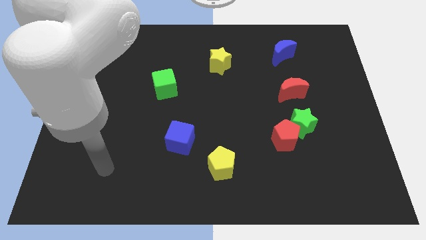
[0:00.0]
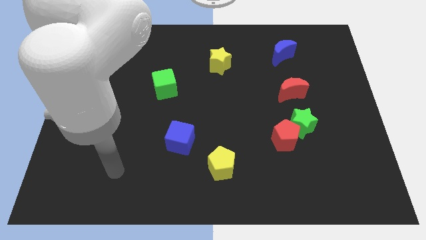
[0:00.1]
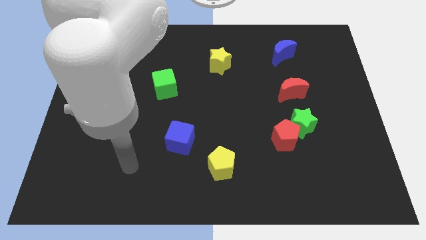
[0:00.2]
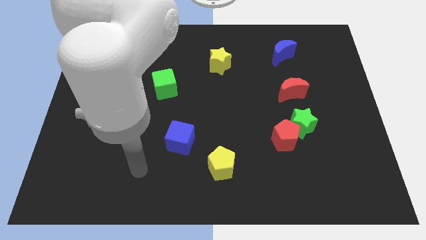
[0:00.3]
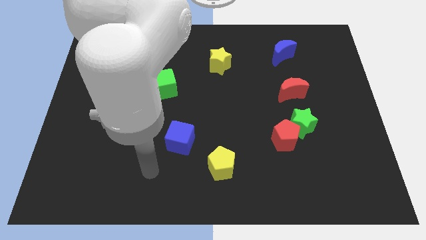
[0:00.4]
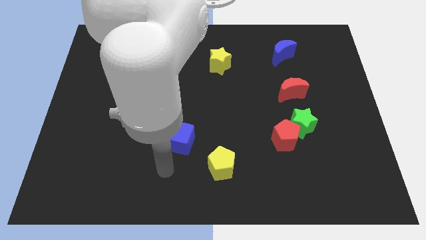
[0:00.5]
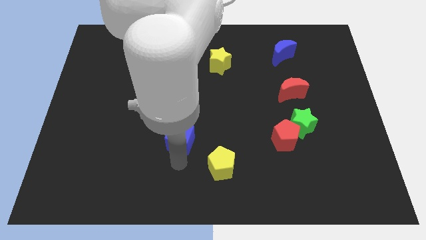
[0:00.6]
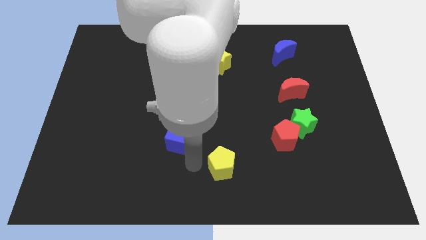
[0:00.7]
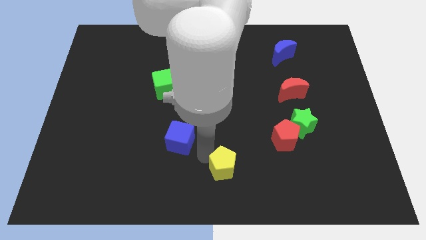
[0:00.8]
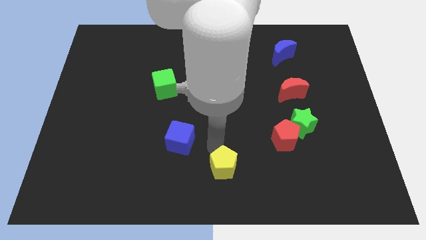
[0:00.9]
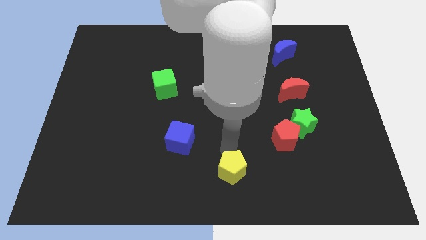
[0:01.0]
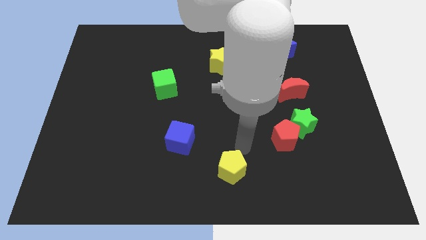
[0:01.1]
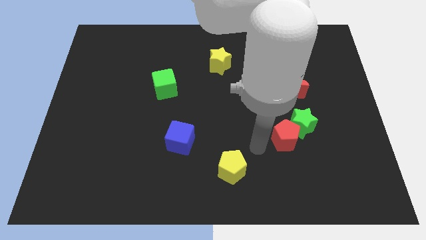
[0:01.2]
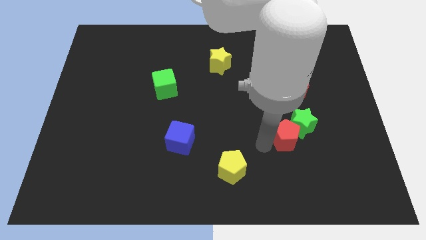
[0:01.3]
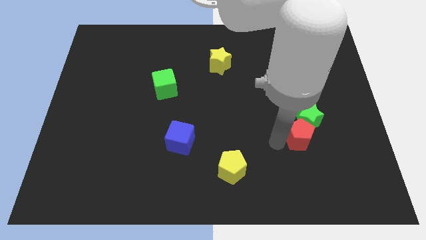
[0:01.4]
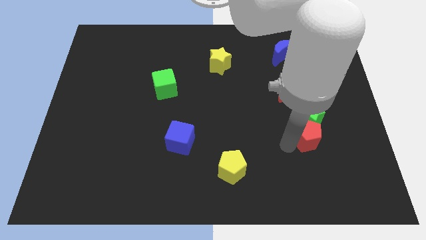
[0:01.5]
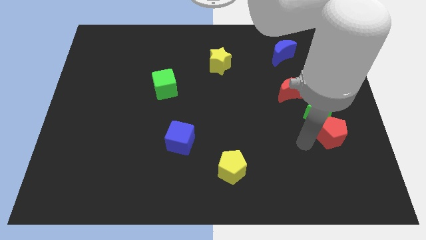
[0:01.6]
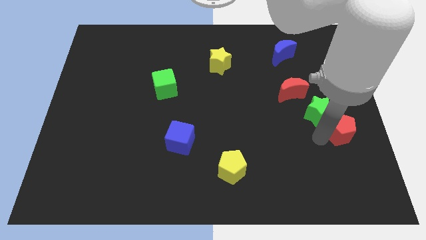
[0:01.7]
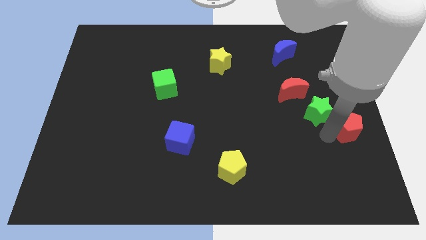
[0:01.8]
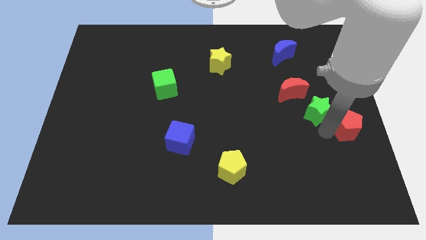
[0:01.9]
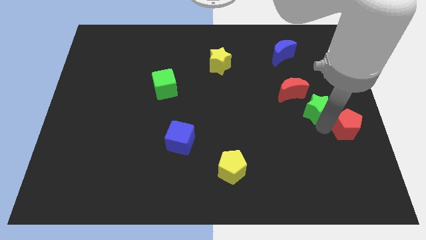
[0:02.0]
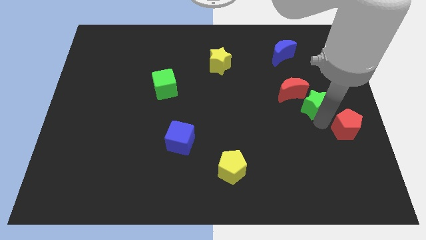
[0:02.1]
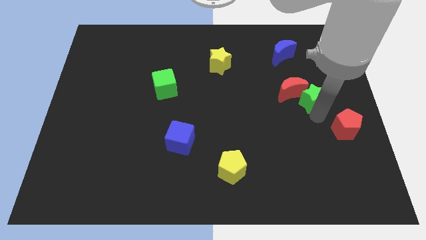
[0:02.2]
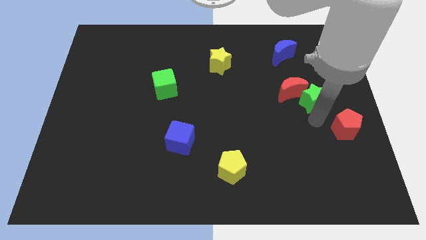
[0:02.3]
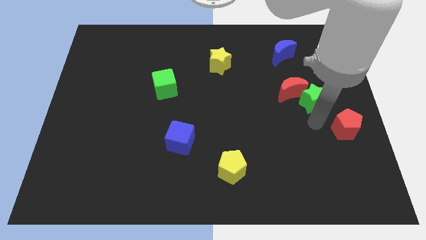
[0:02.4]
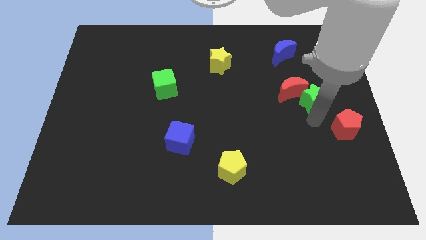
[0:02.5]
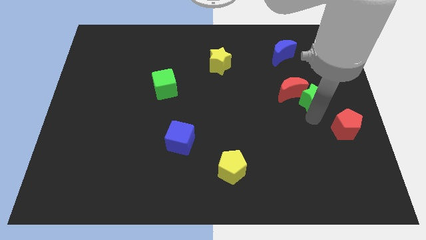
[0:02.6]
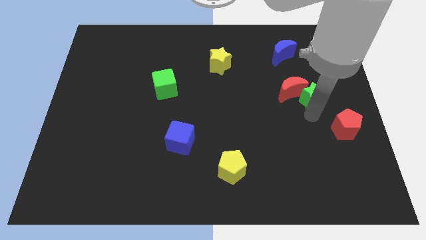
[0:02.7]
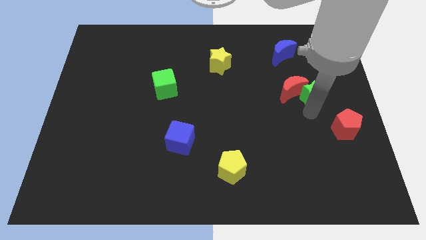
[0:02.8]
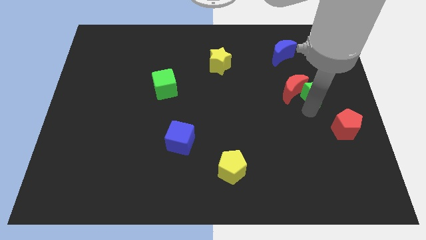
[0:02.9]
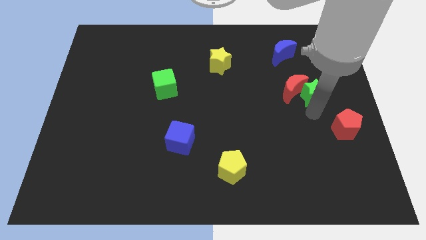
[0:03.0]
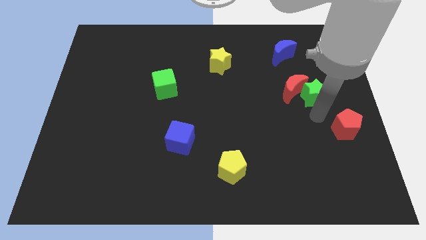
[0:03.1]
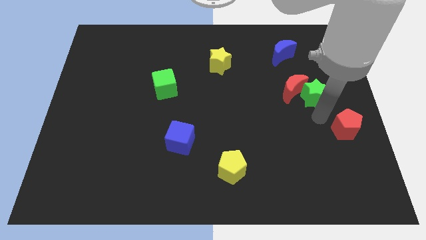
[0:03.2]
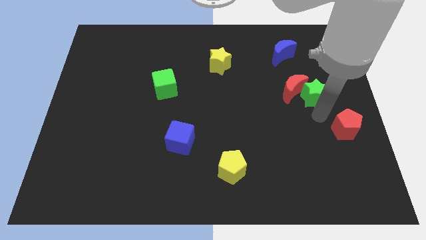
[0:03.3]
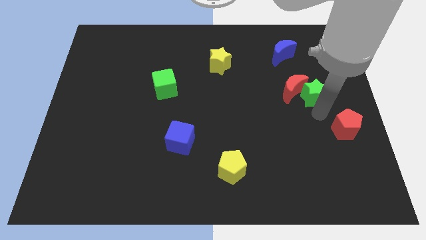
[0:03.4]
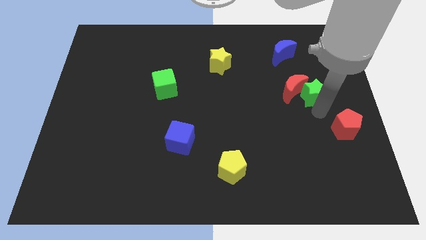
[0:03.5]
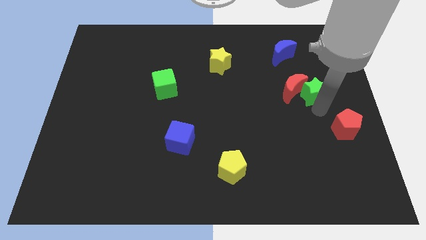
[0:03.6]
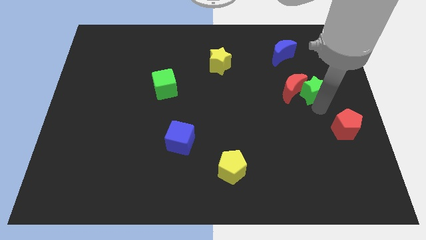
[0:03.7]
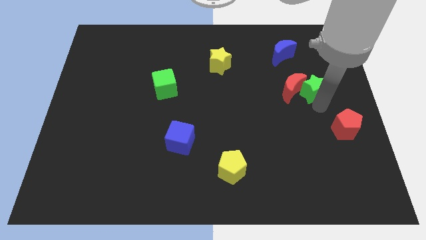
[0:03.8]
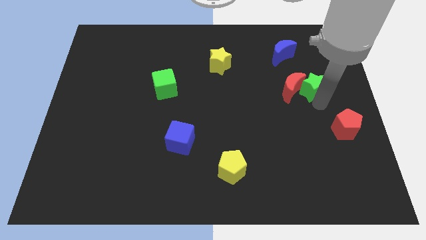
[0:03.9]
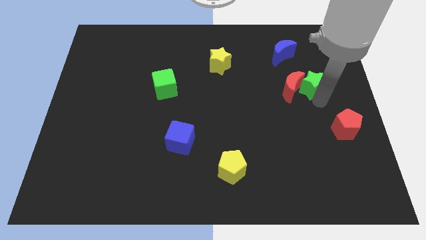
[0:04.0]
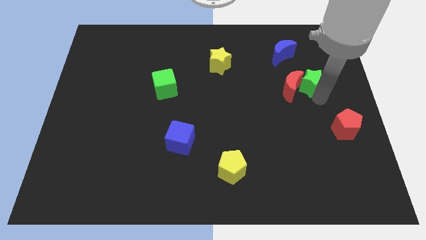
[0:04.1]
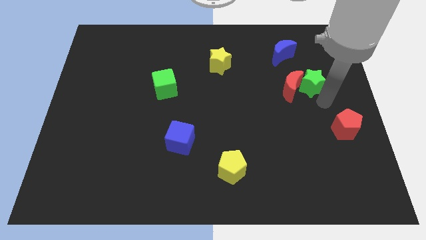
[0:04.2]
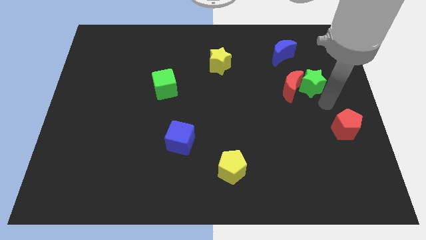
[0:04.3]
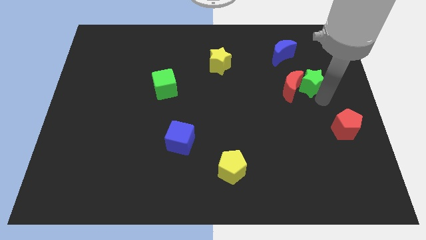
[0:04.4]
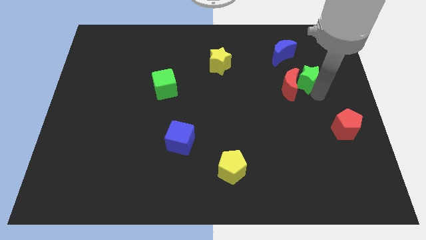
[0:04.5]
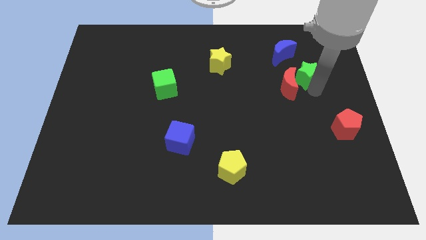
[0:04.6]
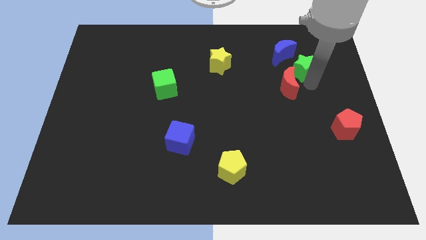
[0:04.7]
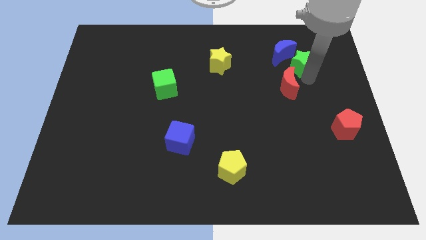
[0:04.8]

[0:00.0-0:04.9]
push the green star close to the blue moon

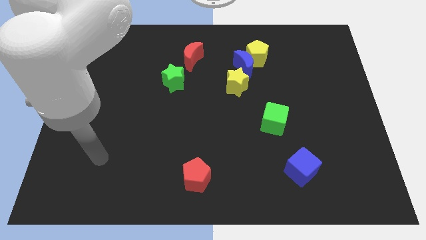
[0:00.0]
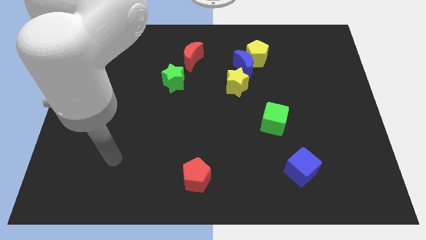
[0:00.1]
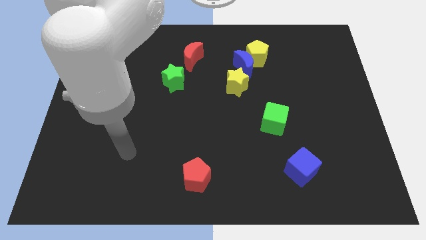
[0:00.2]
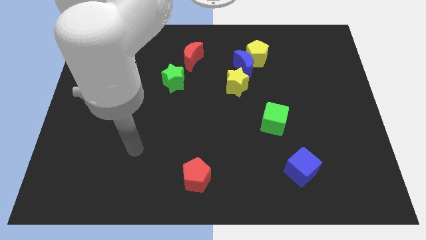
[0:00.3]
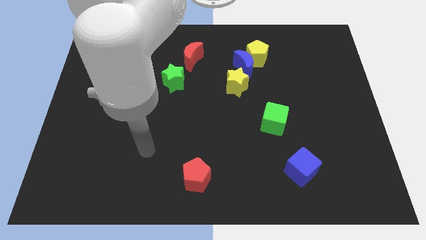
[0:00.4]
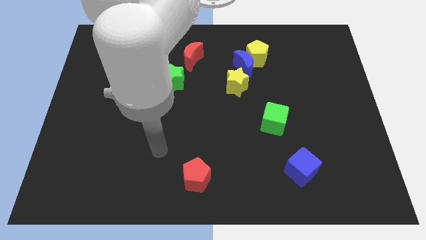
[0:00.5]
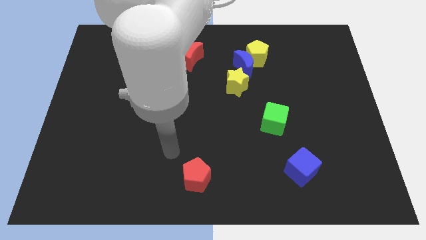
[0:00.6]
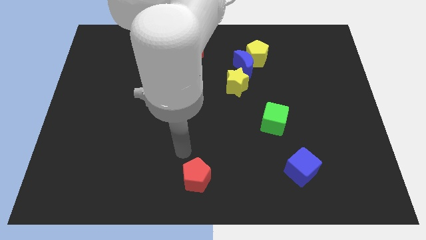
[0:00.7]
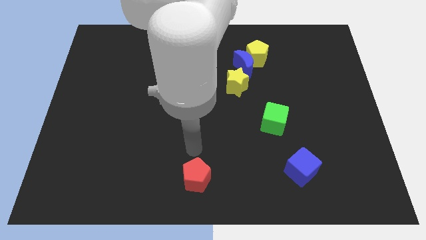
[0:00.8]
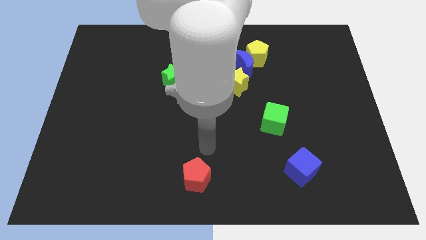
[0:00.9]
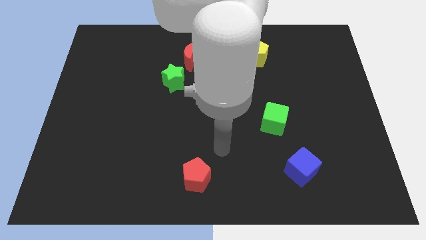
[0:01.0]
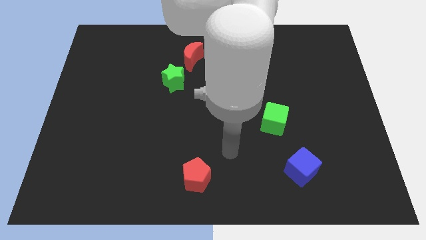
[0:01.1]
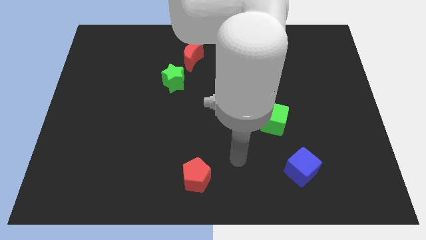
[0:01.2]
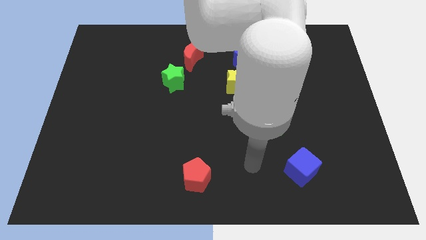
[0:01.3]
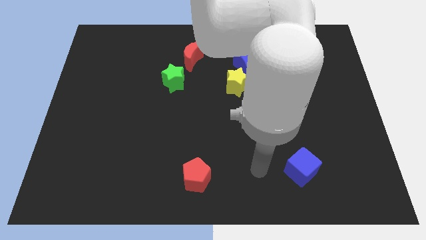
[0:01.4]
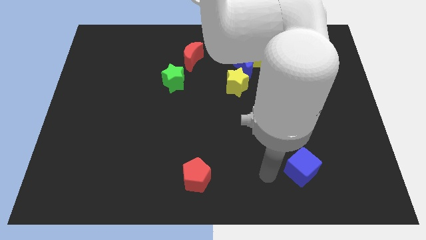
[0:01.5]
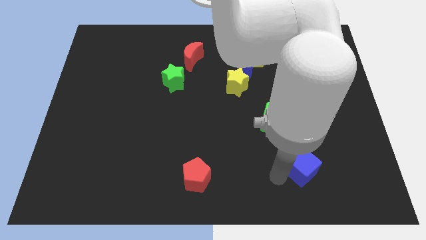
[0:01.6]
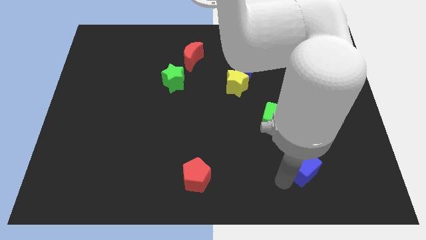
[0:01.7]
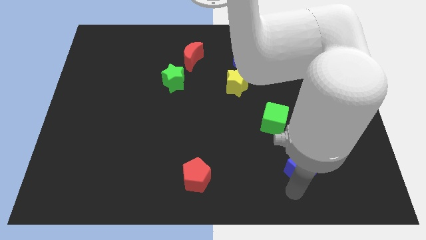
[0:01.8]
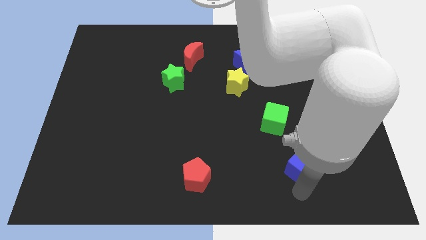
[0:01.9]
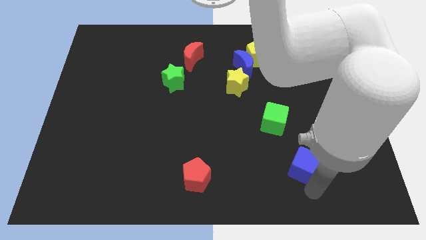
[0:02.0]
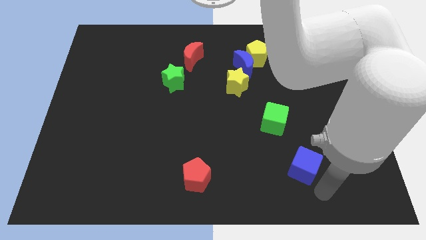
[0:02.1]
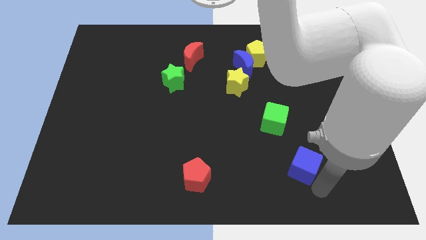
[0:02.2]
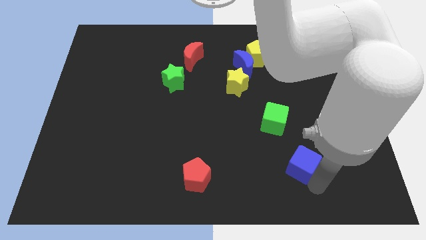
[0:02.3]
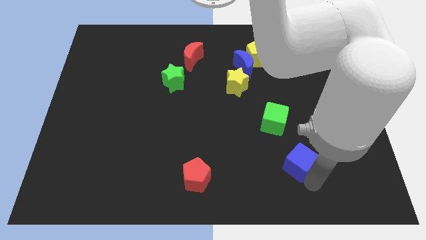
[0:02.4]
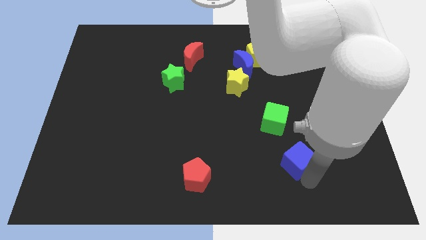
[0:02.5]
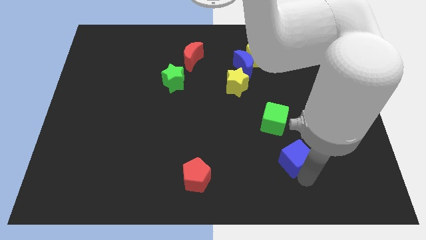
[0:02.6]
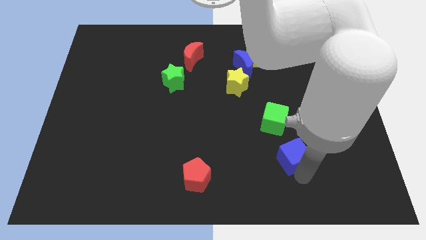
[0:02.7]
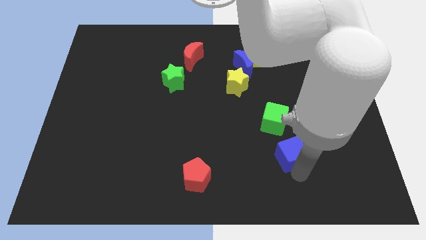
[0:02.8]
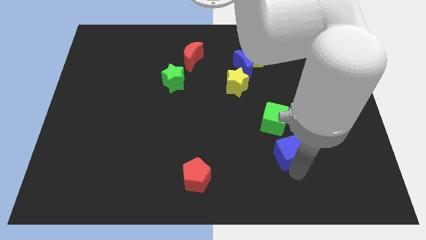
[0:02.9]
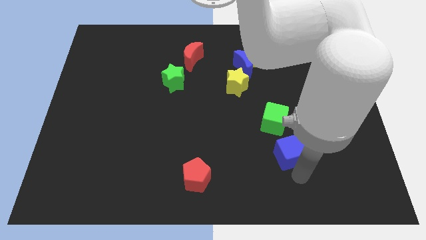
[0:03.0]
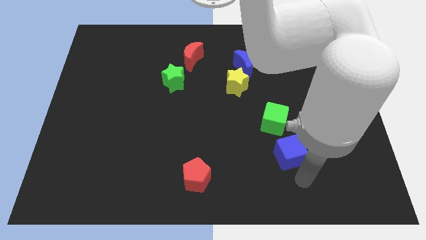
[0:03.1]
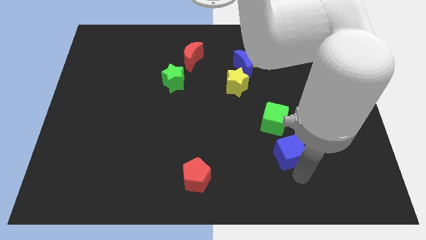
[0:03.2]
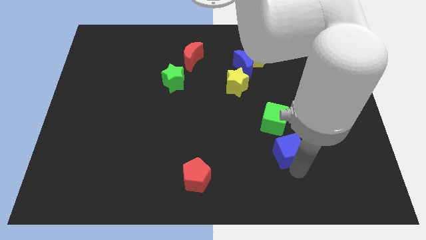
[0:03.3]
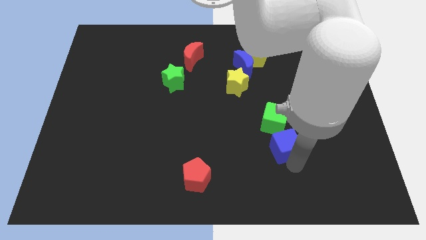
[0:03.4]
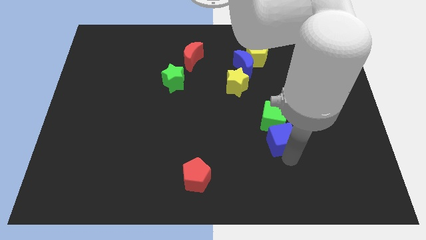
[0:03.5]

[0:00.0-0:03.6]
move the blue cube close to the green cube
